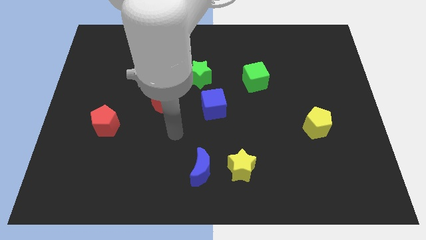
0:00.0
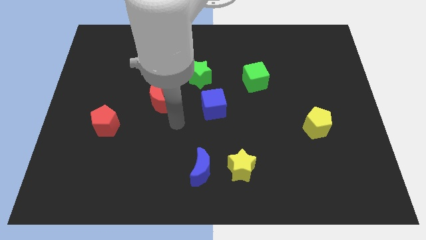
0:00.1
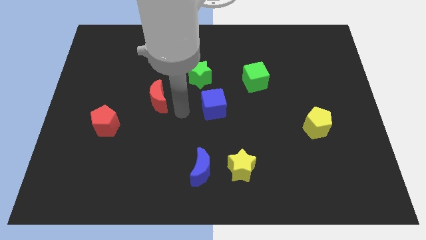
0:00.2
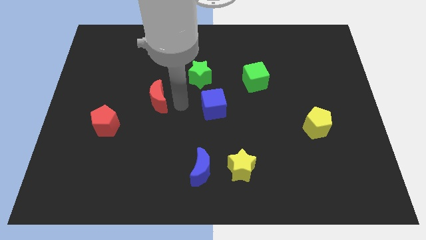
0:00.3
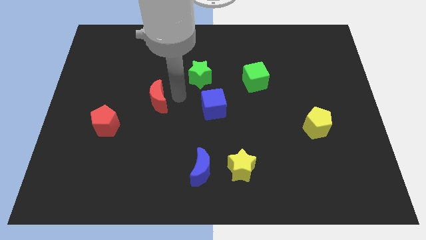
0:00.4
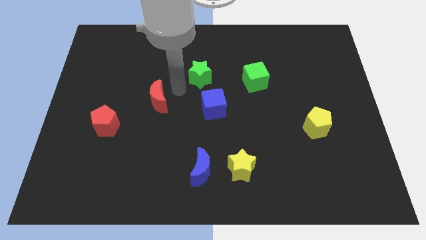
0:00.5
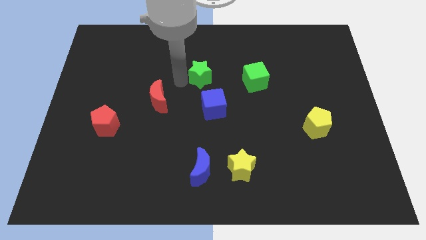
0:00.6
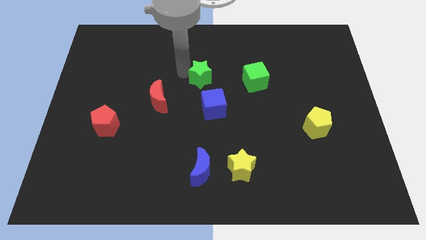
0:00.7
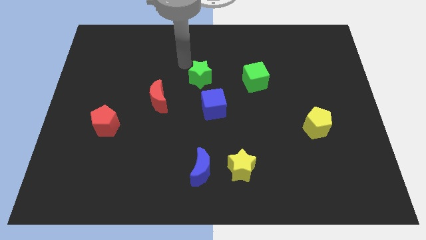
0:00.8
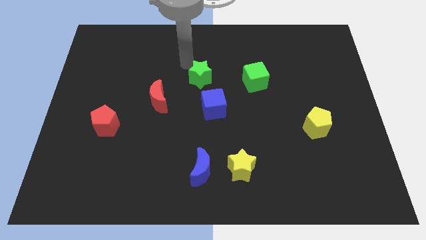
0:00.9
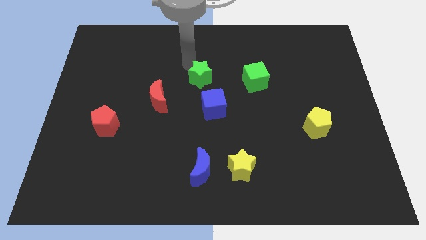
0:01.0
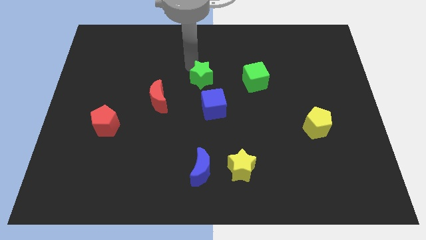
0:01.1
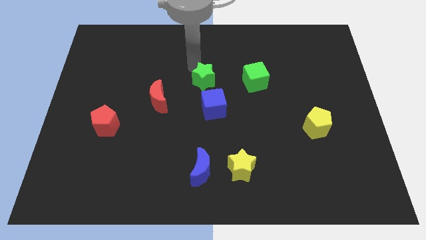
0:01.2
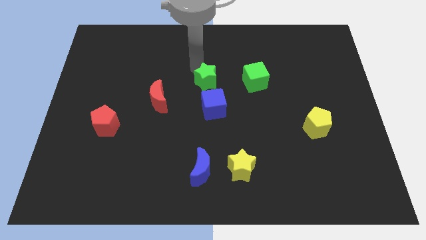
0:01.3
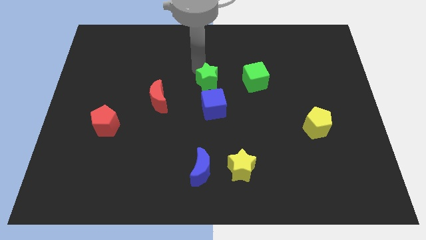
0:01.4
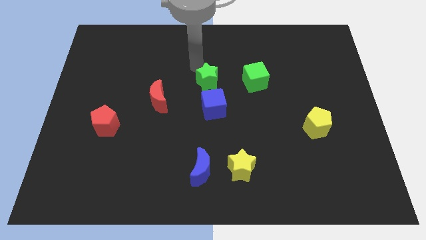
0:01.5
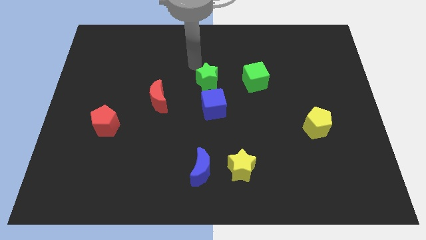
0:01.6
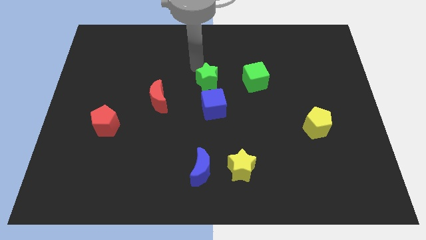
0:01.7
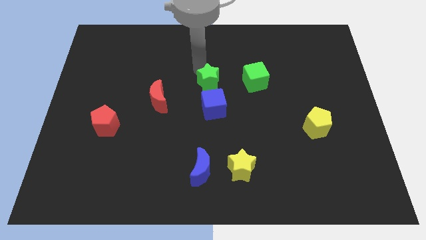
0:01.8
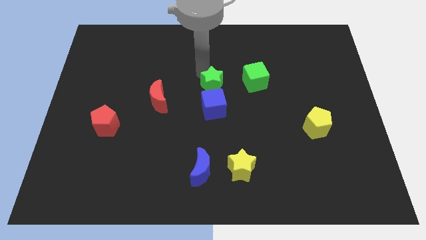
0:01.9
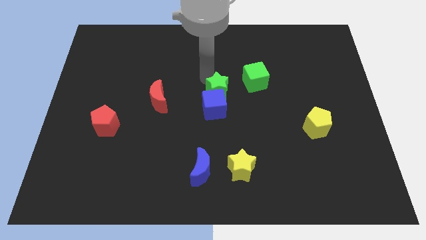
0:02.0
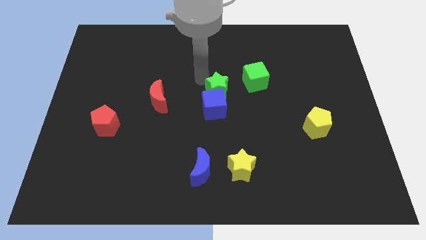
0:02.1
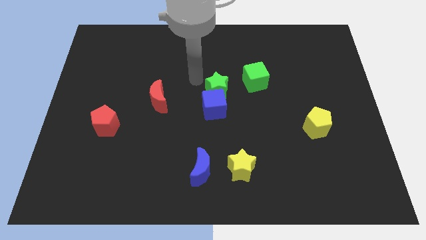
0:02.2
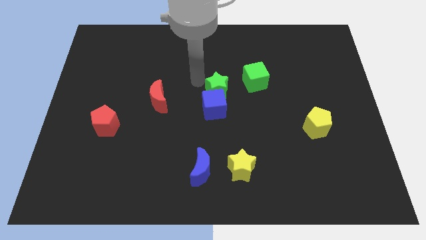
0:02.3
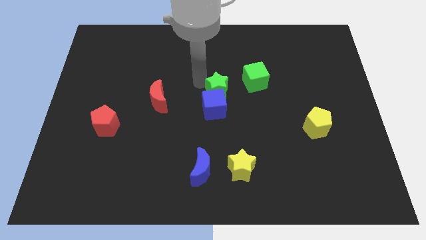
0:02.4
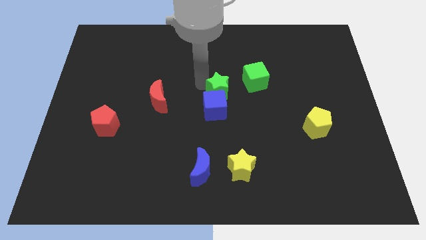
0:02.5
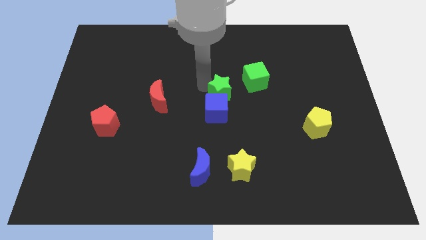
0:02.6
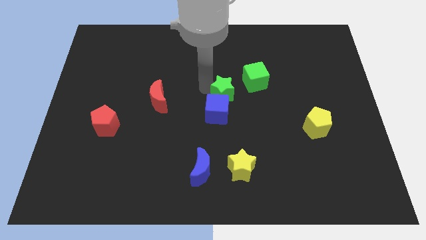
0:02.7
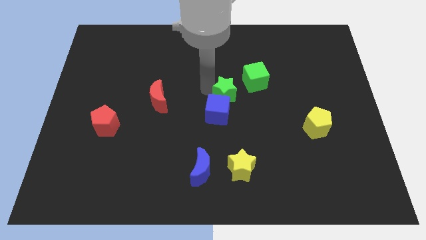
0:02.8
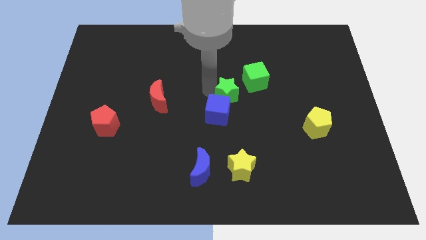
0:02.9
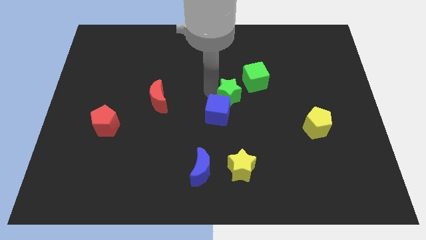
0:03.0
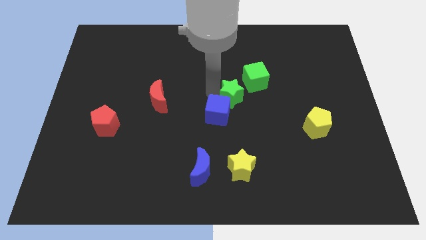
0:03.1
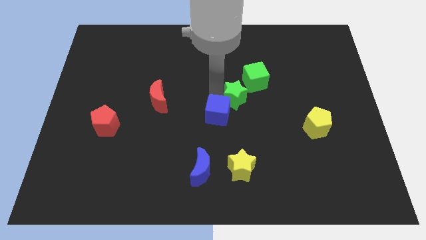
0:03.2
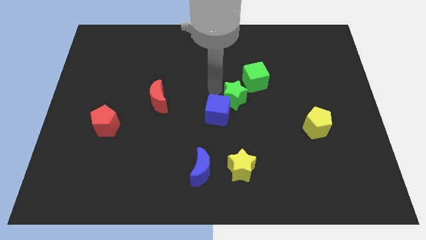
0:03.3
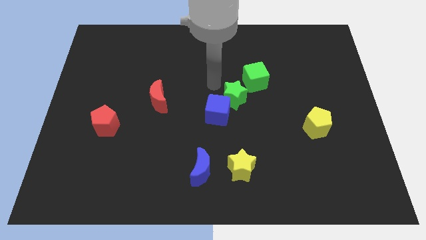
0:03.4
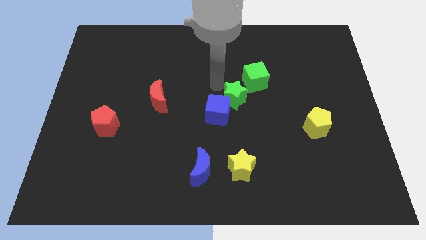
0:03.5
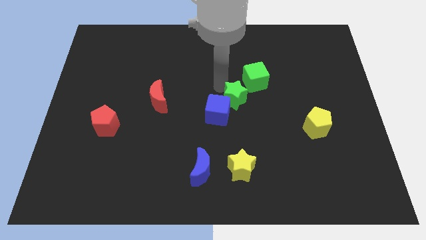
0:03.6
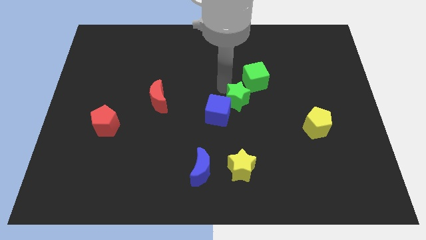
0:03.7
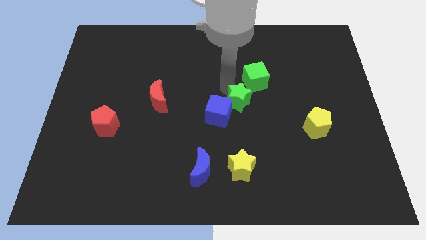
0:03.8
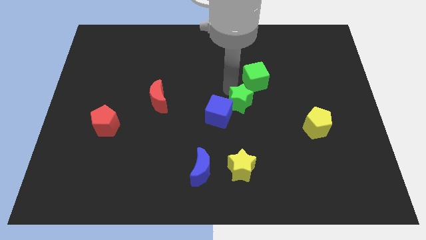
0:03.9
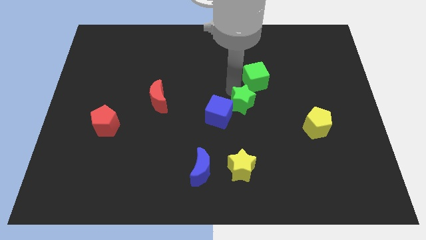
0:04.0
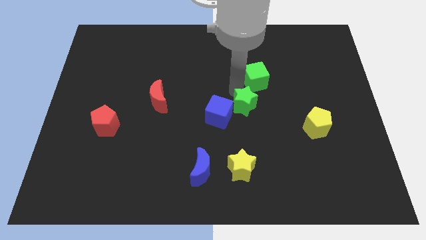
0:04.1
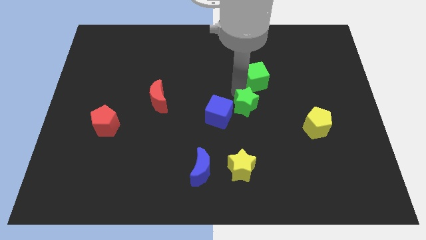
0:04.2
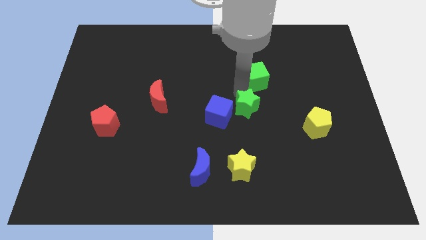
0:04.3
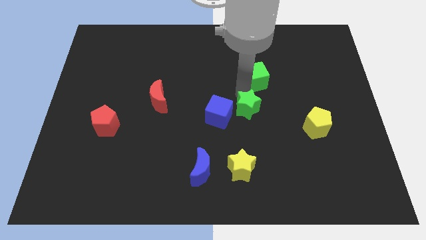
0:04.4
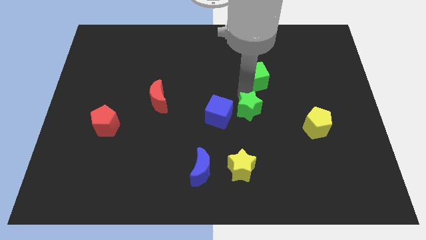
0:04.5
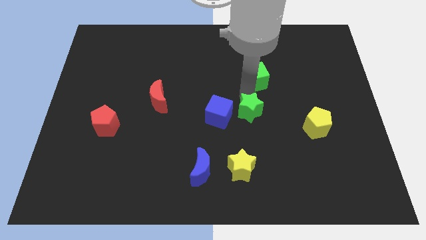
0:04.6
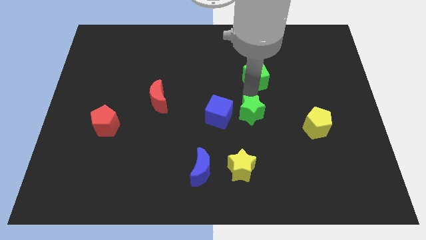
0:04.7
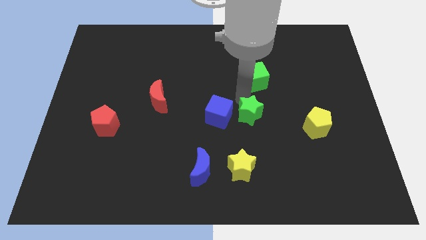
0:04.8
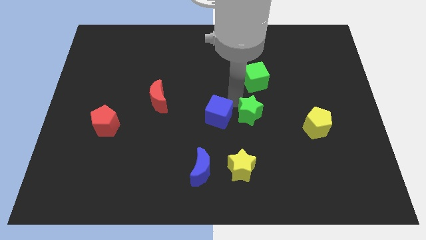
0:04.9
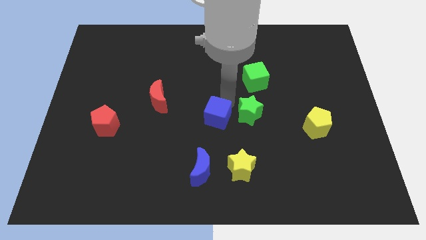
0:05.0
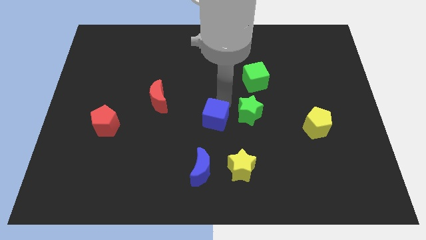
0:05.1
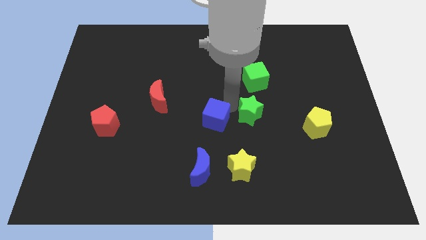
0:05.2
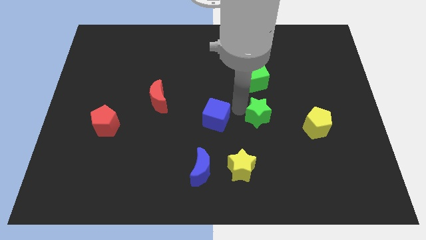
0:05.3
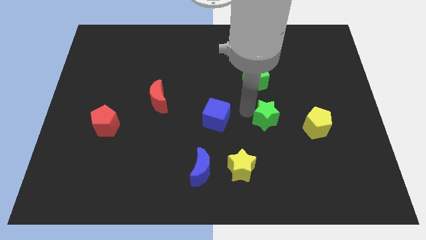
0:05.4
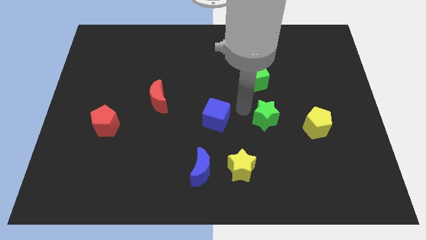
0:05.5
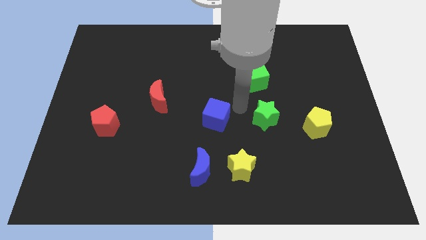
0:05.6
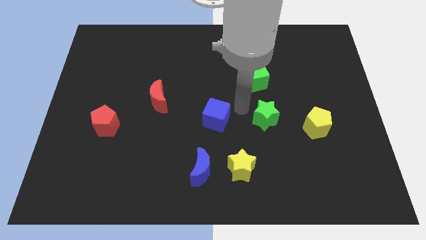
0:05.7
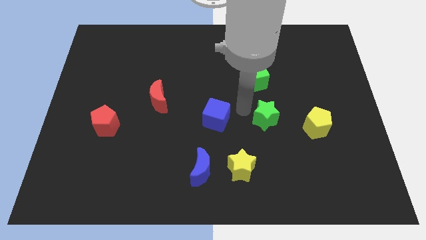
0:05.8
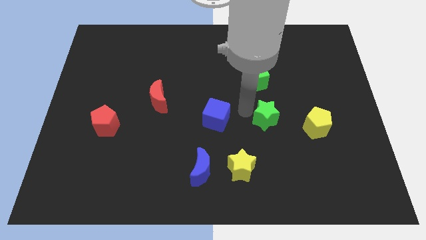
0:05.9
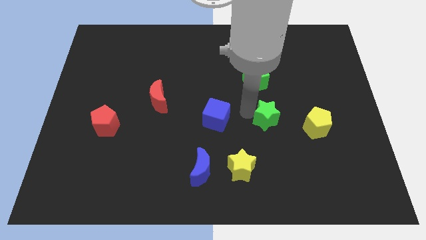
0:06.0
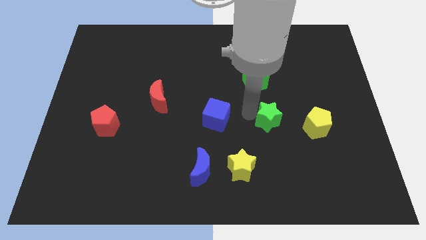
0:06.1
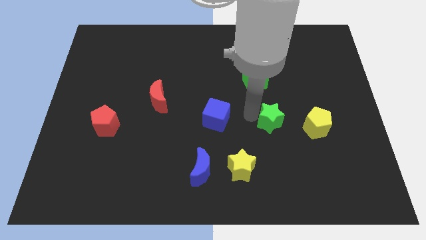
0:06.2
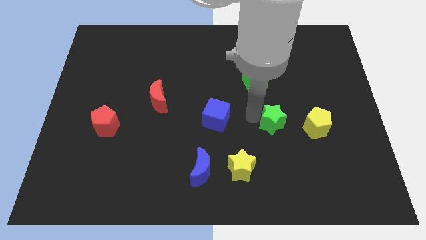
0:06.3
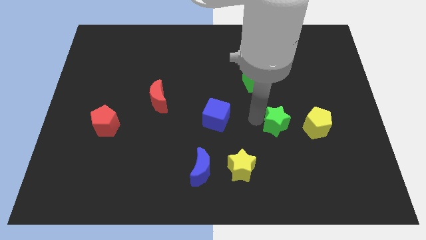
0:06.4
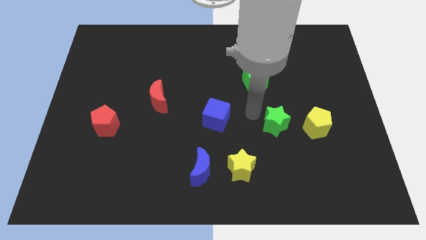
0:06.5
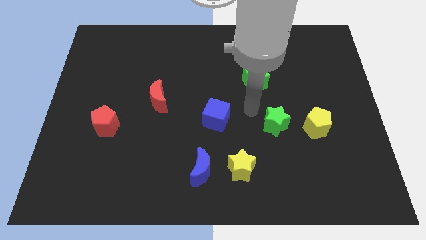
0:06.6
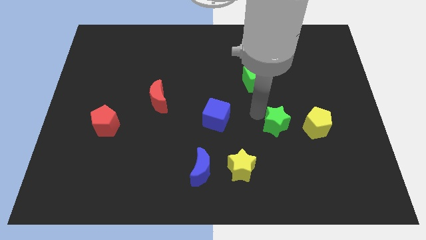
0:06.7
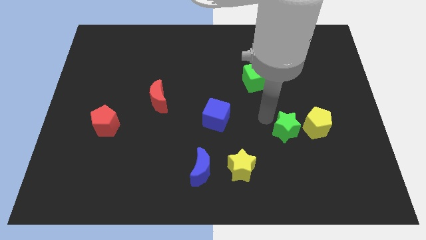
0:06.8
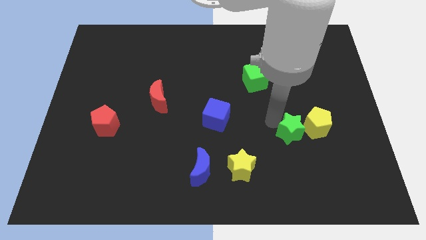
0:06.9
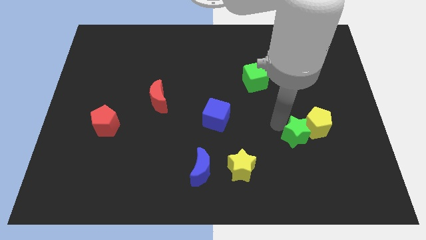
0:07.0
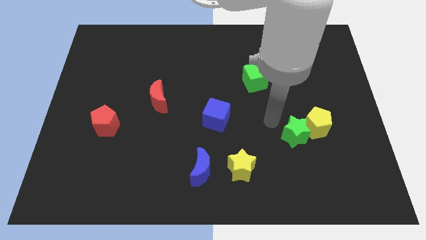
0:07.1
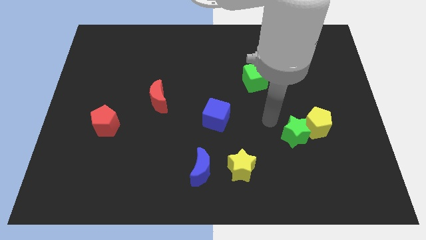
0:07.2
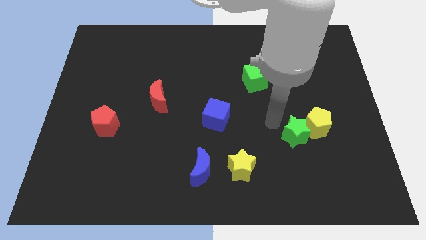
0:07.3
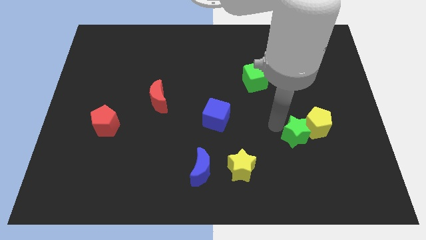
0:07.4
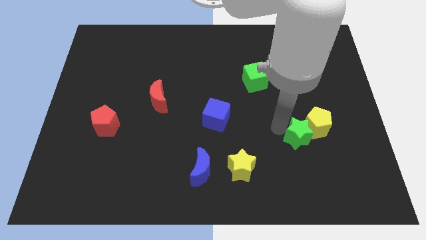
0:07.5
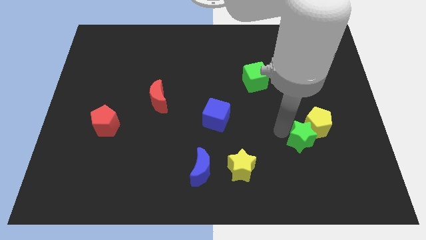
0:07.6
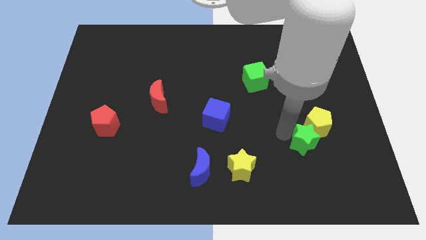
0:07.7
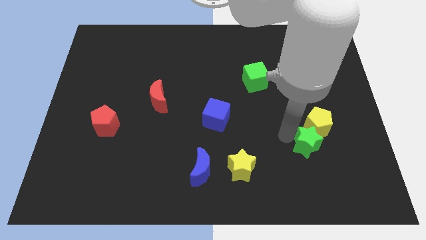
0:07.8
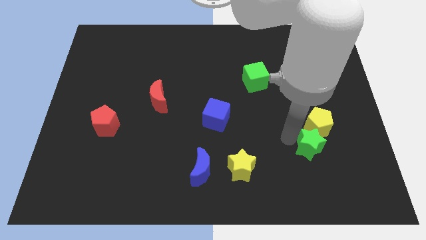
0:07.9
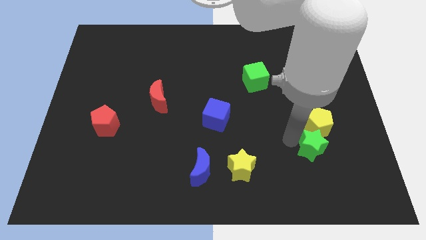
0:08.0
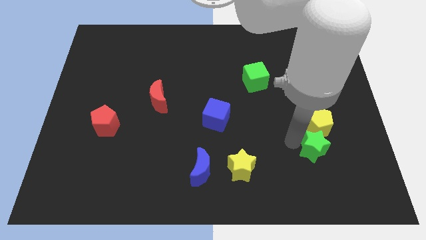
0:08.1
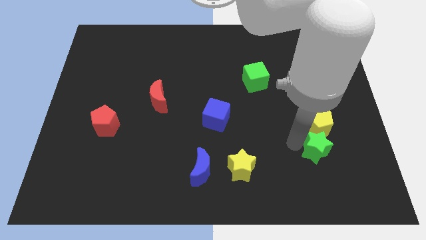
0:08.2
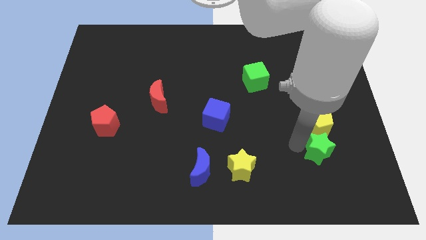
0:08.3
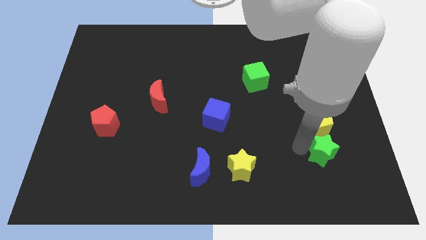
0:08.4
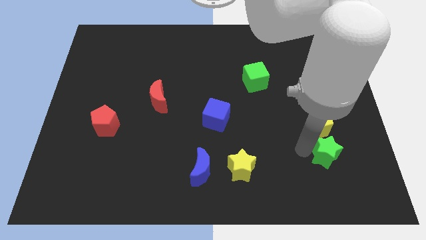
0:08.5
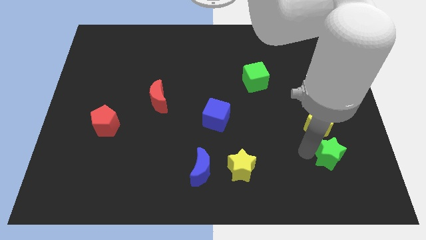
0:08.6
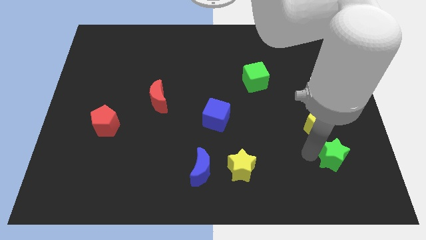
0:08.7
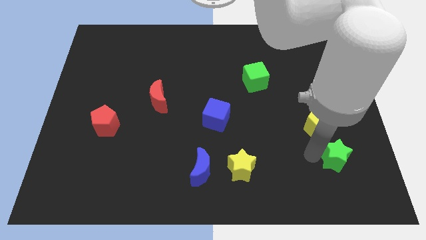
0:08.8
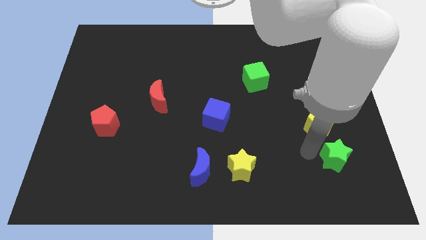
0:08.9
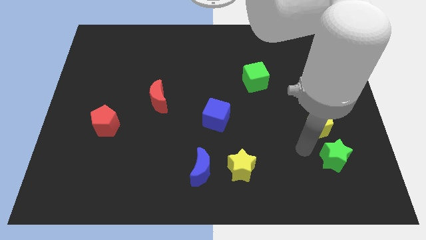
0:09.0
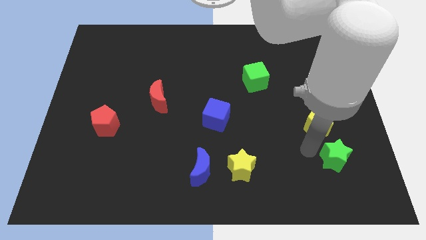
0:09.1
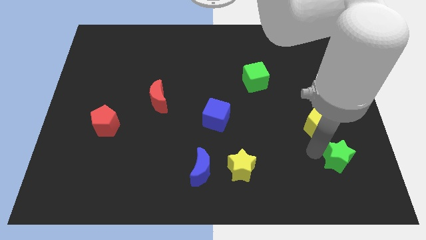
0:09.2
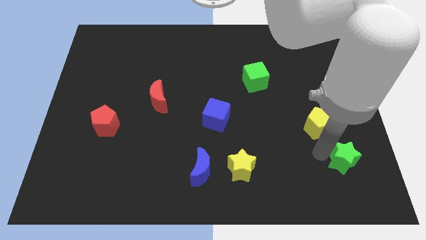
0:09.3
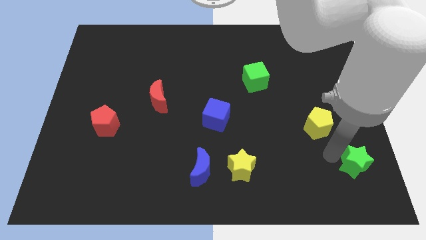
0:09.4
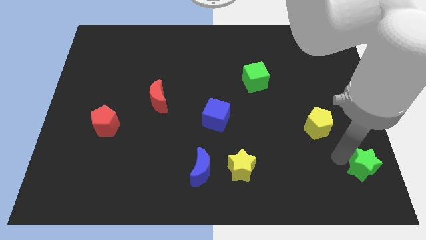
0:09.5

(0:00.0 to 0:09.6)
put the green star to the bottom right
